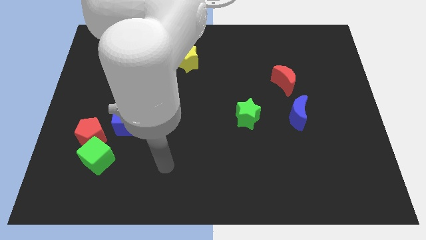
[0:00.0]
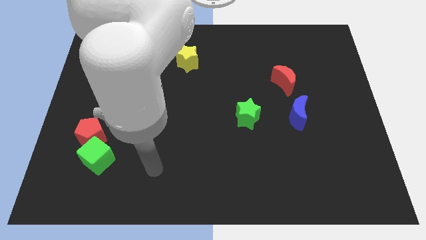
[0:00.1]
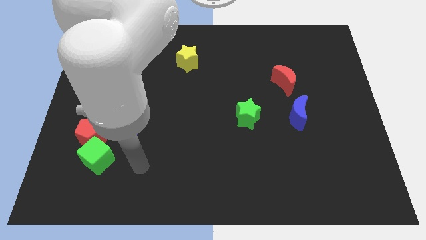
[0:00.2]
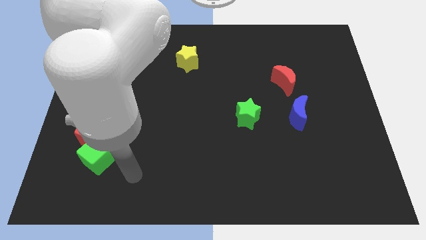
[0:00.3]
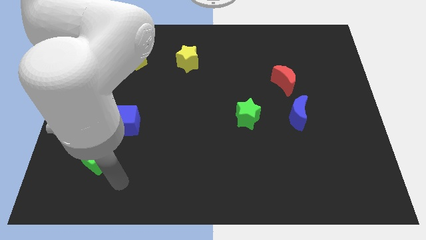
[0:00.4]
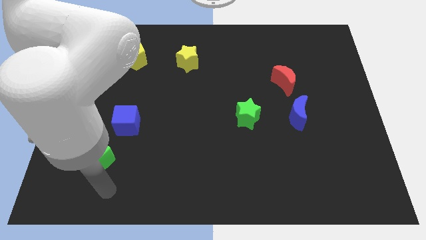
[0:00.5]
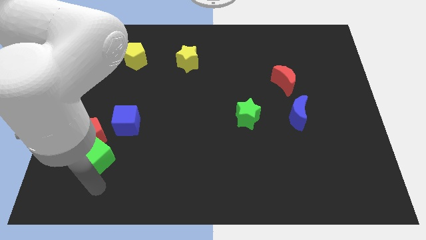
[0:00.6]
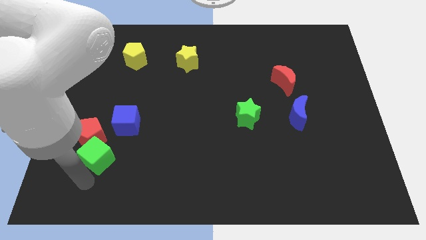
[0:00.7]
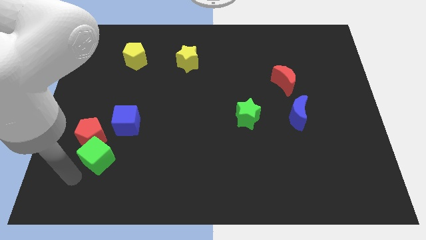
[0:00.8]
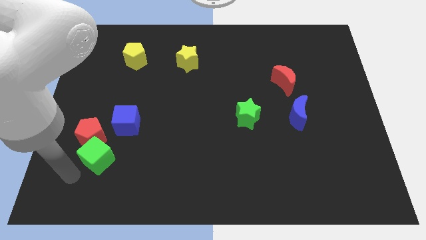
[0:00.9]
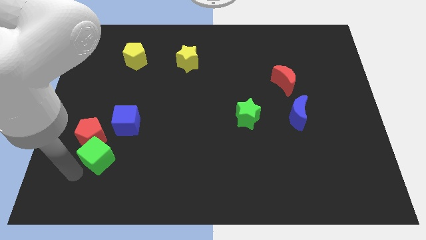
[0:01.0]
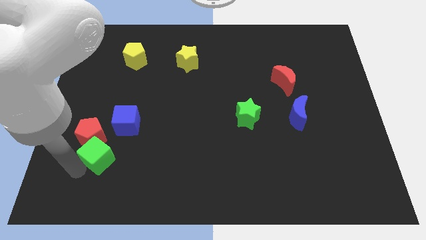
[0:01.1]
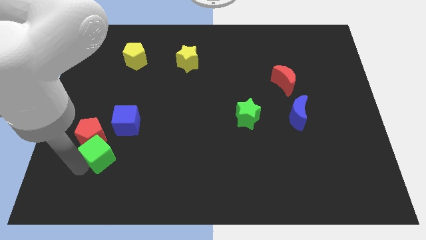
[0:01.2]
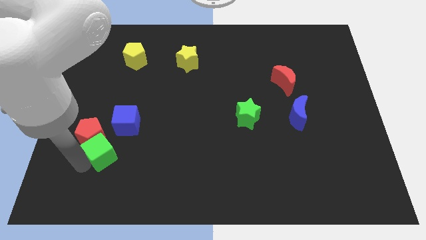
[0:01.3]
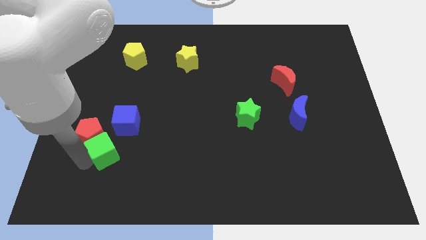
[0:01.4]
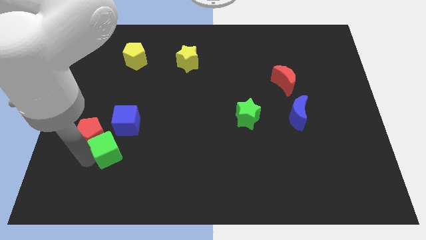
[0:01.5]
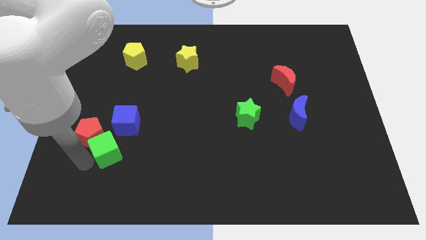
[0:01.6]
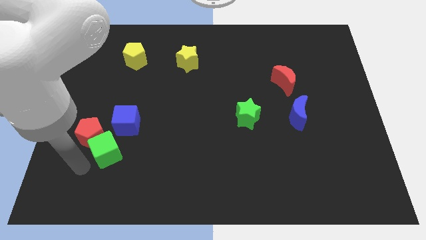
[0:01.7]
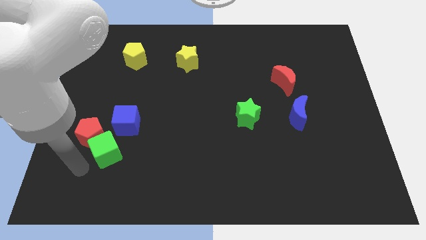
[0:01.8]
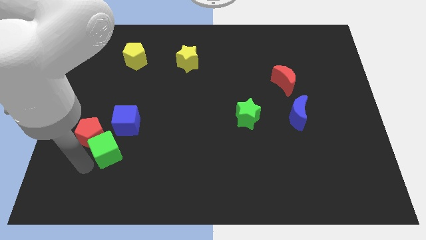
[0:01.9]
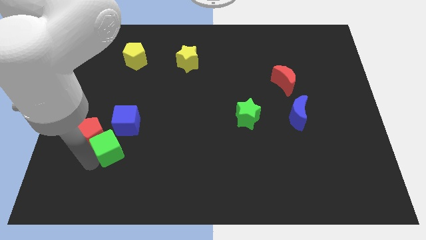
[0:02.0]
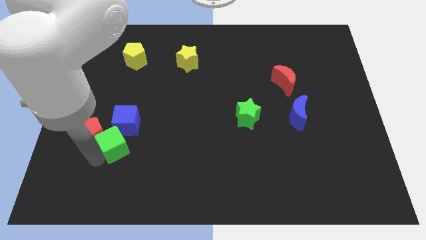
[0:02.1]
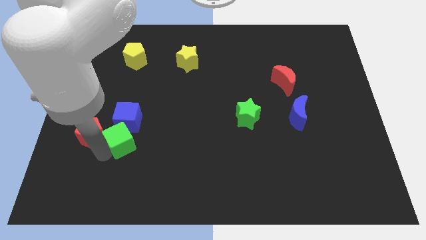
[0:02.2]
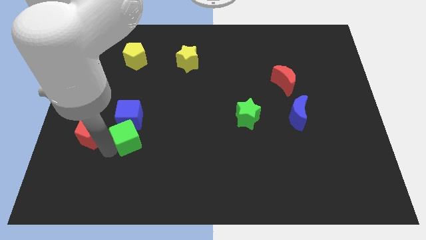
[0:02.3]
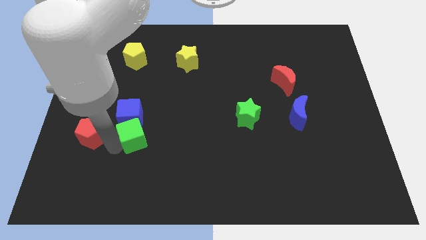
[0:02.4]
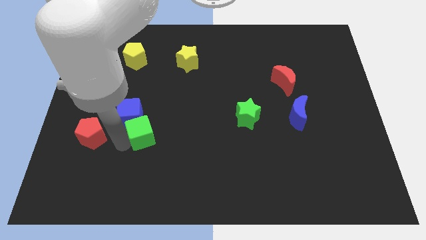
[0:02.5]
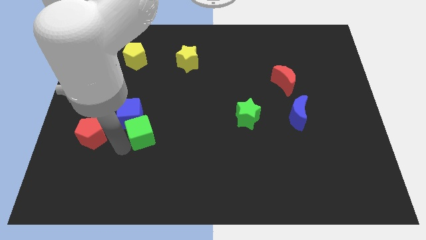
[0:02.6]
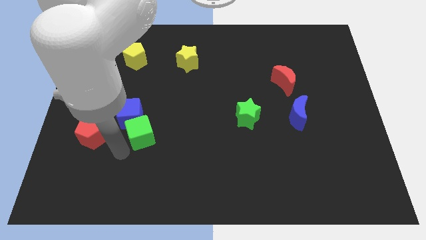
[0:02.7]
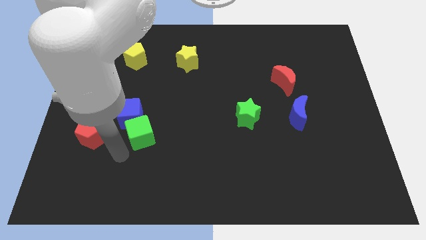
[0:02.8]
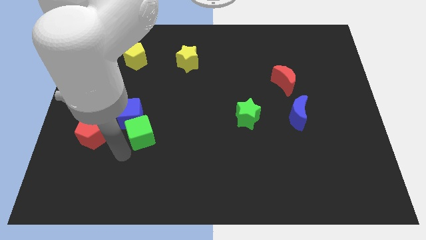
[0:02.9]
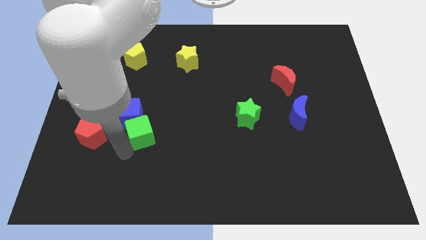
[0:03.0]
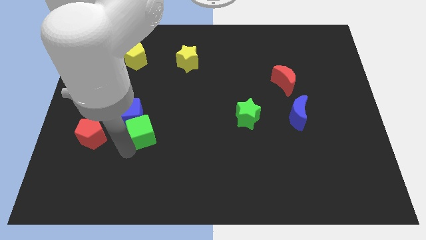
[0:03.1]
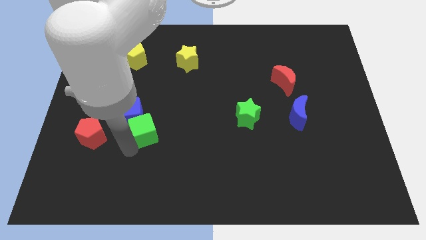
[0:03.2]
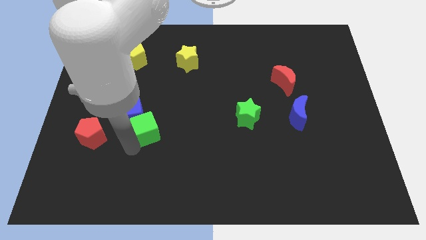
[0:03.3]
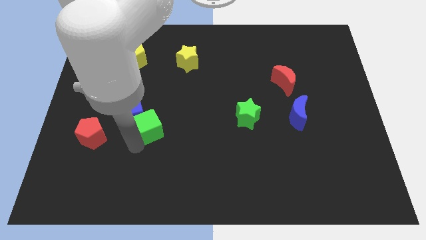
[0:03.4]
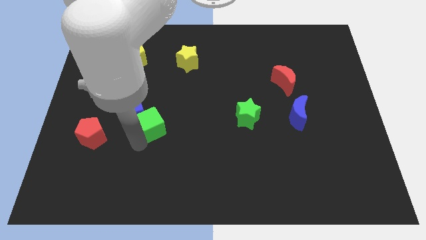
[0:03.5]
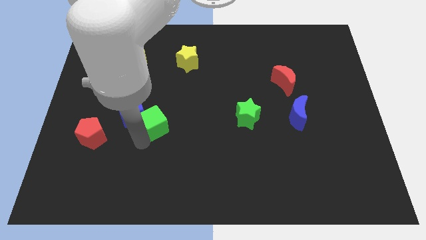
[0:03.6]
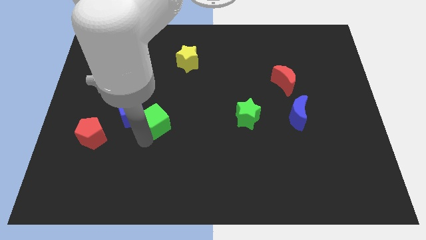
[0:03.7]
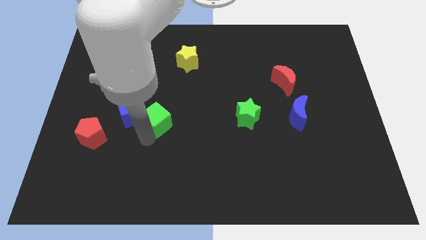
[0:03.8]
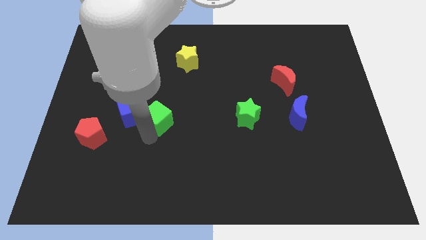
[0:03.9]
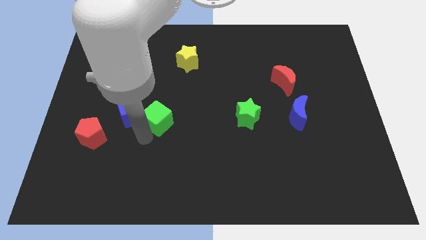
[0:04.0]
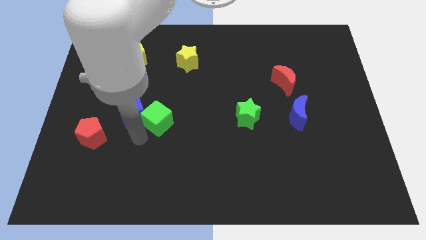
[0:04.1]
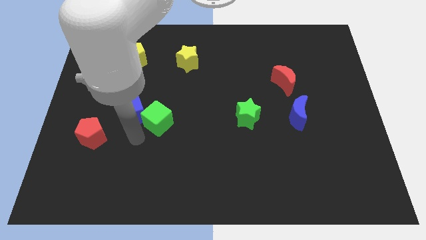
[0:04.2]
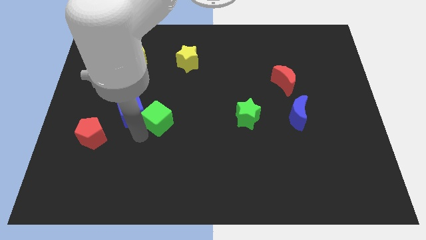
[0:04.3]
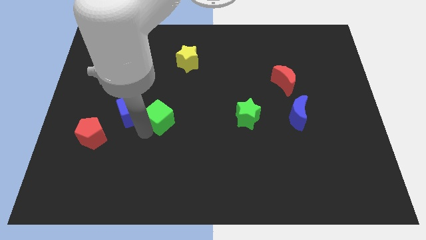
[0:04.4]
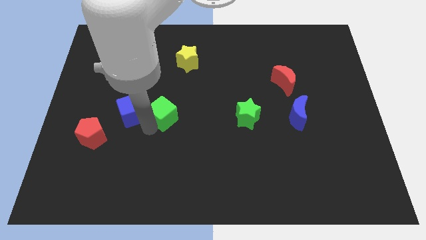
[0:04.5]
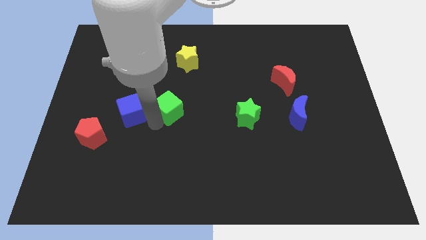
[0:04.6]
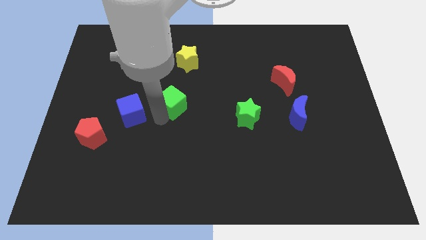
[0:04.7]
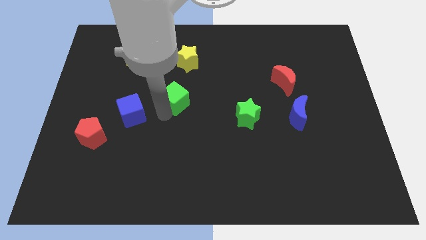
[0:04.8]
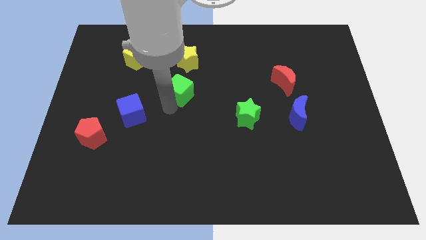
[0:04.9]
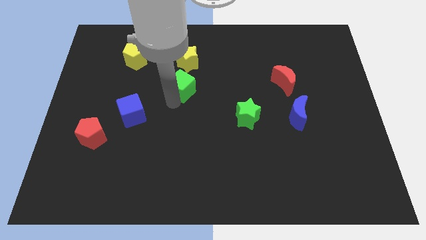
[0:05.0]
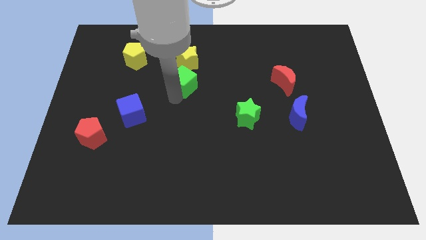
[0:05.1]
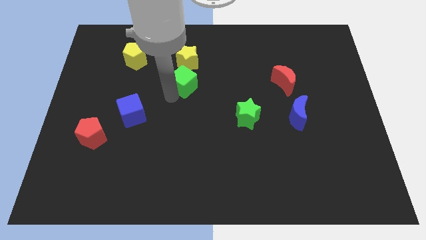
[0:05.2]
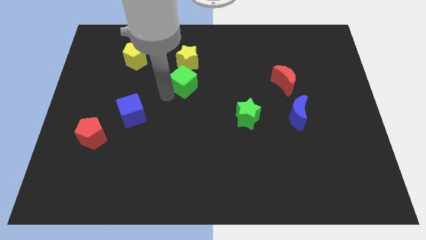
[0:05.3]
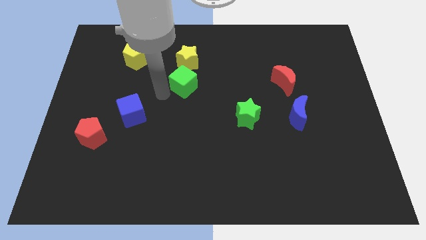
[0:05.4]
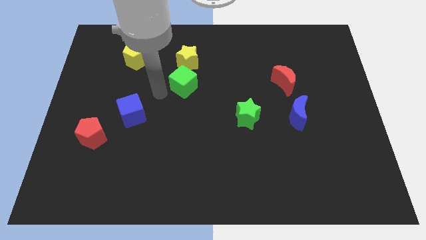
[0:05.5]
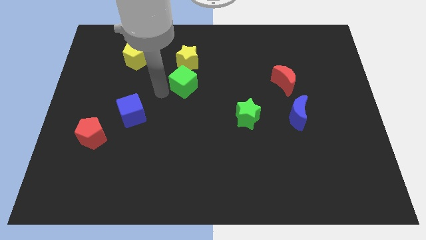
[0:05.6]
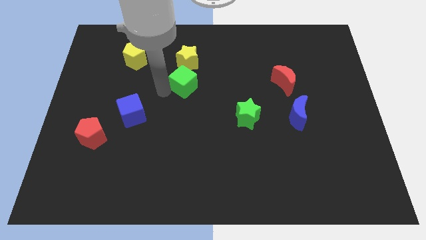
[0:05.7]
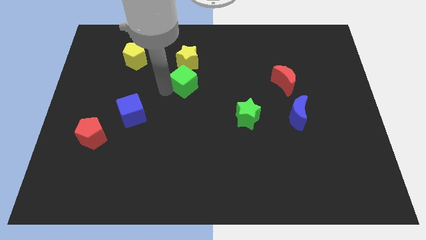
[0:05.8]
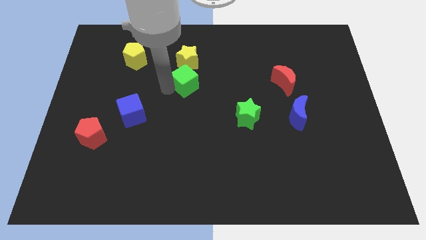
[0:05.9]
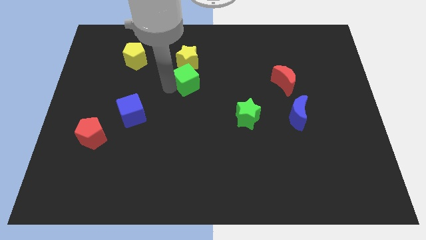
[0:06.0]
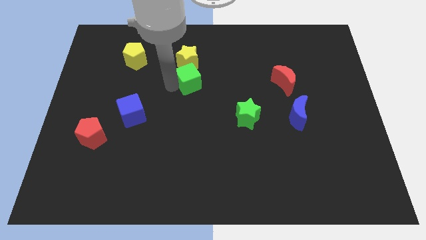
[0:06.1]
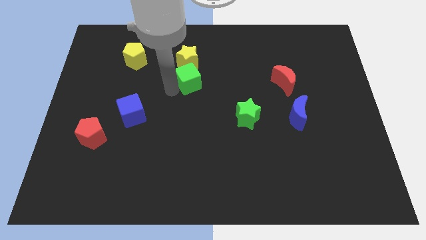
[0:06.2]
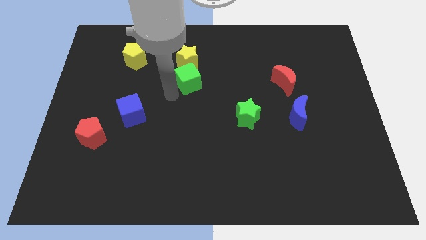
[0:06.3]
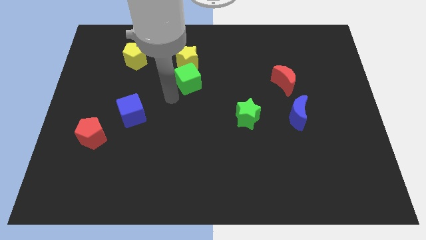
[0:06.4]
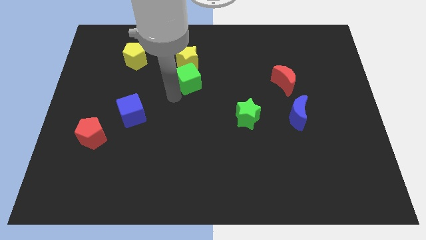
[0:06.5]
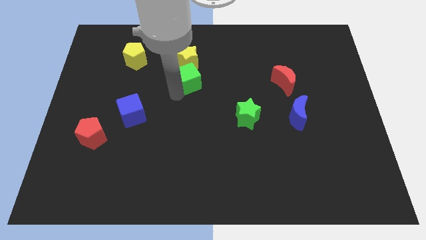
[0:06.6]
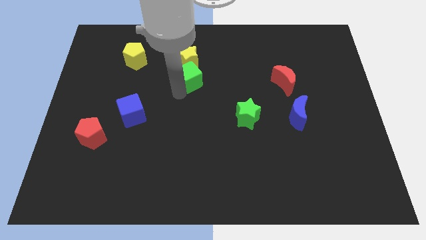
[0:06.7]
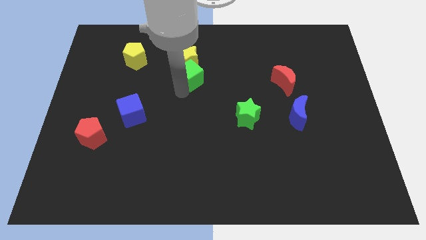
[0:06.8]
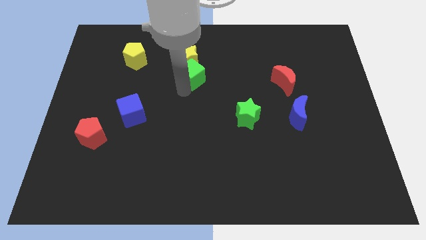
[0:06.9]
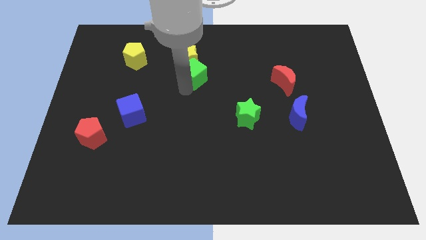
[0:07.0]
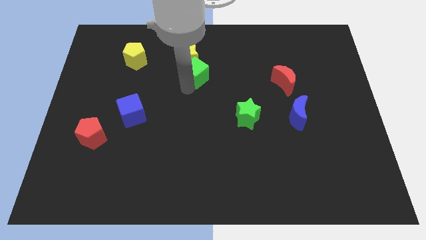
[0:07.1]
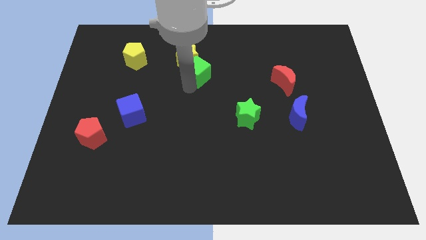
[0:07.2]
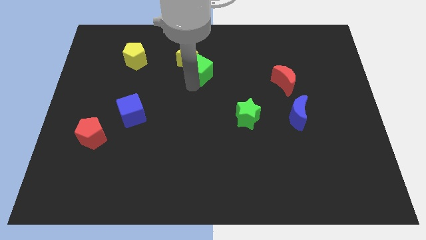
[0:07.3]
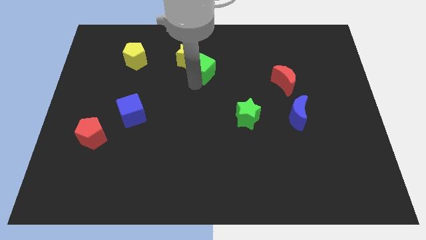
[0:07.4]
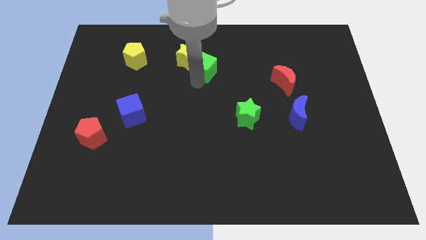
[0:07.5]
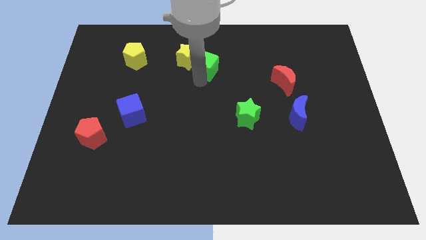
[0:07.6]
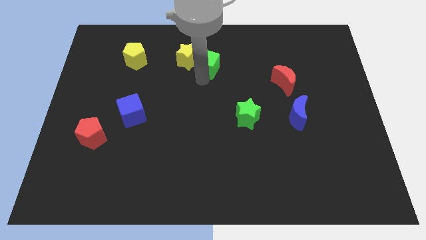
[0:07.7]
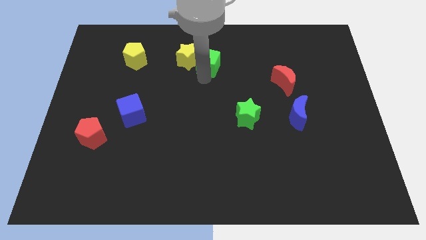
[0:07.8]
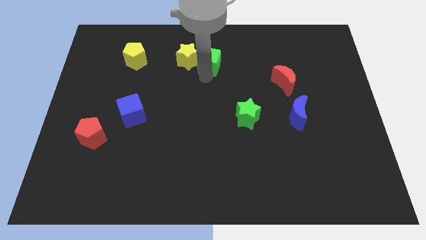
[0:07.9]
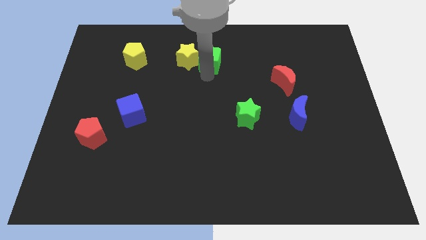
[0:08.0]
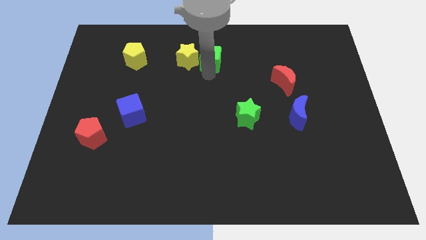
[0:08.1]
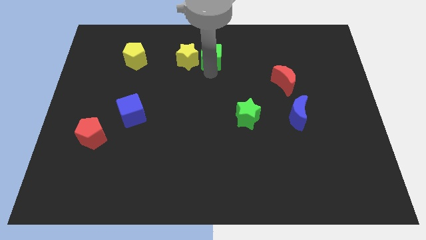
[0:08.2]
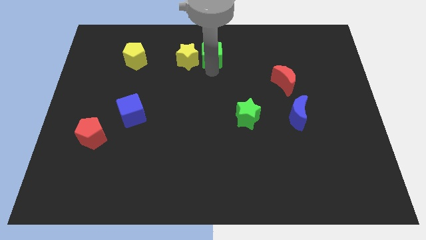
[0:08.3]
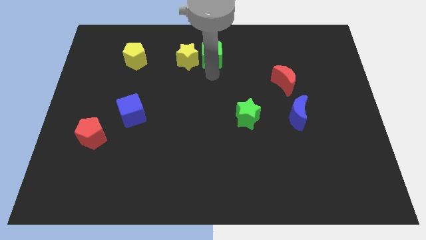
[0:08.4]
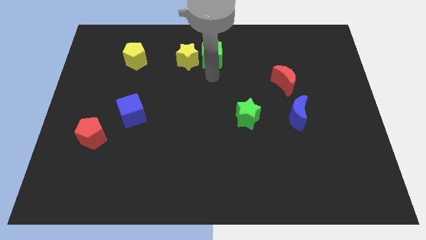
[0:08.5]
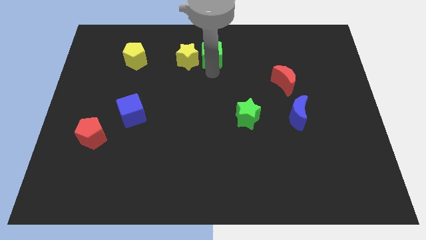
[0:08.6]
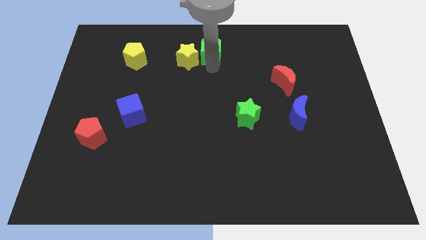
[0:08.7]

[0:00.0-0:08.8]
put the green cube to the towards your base
